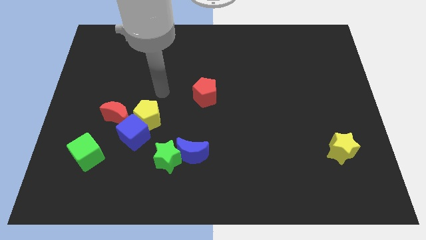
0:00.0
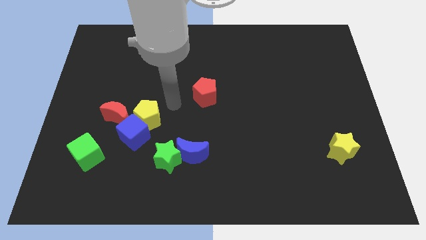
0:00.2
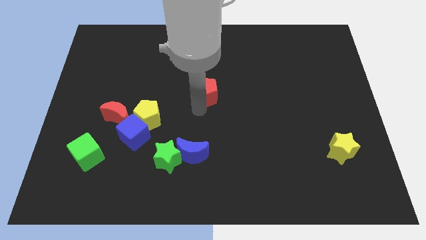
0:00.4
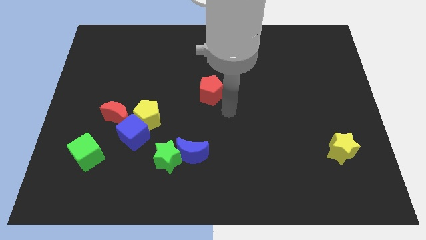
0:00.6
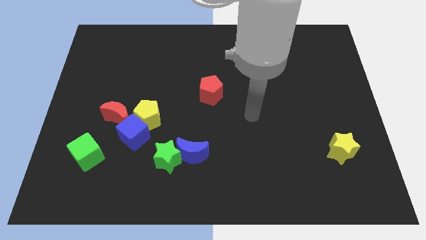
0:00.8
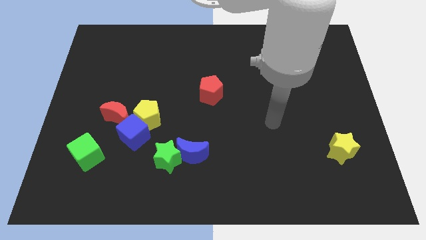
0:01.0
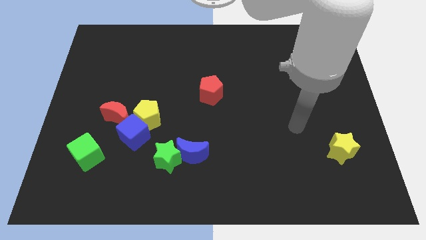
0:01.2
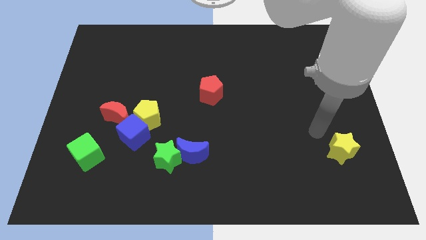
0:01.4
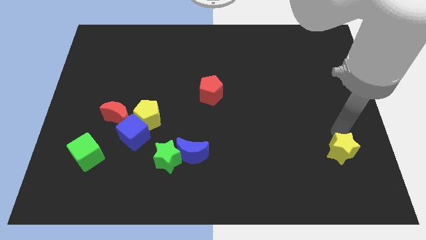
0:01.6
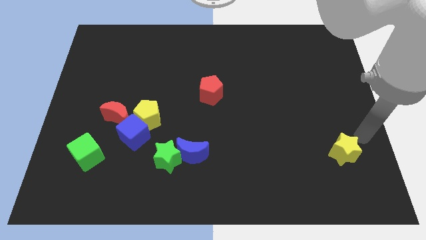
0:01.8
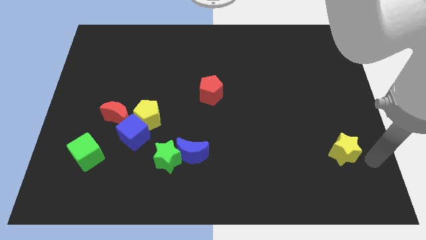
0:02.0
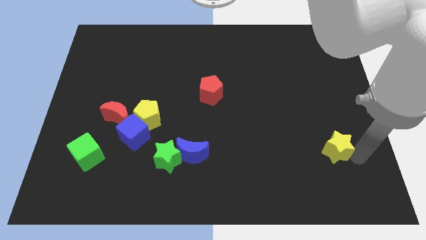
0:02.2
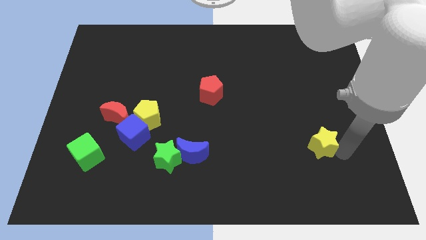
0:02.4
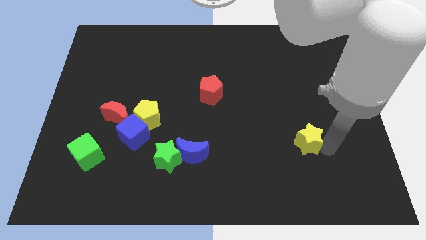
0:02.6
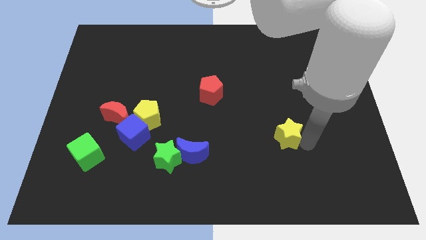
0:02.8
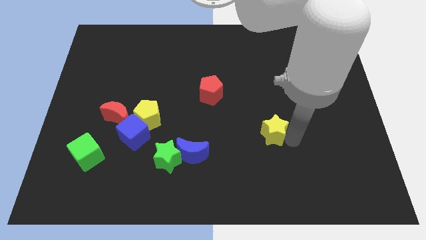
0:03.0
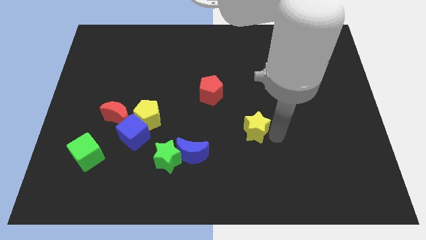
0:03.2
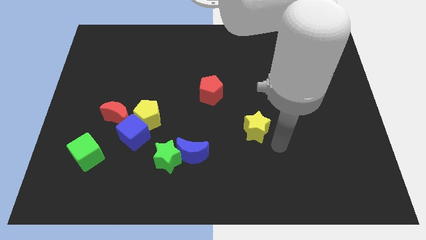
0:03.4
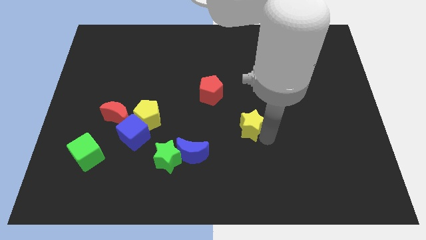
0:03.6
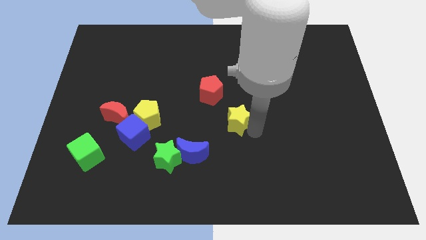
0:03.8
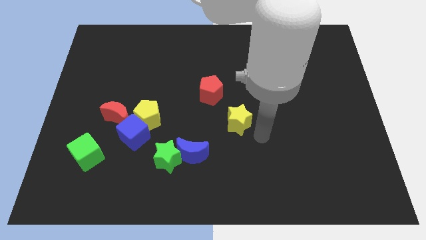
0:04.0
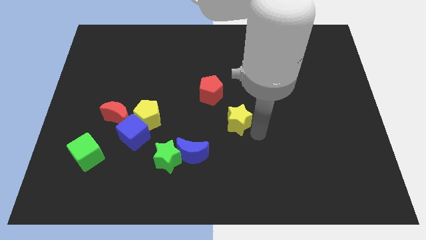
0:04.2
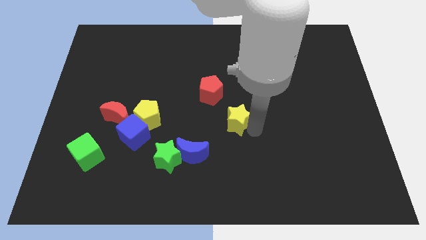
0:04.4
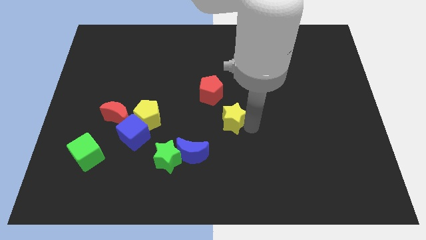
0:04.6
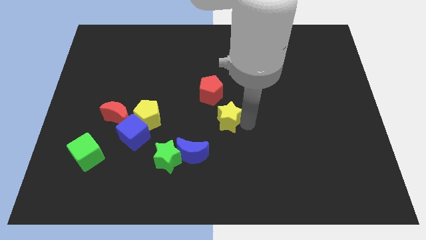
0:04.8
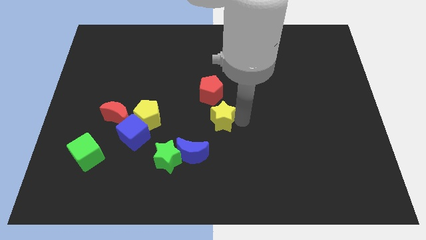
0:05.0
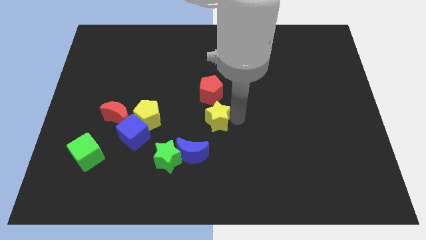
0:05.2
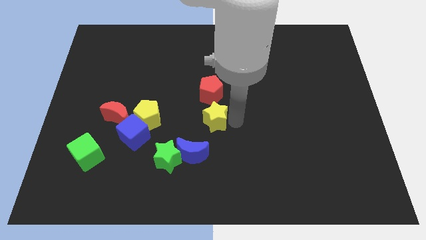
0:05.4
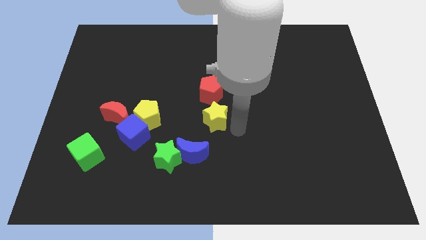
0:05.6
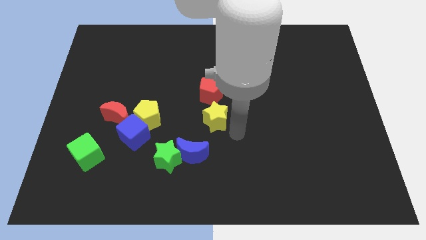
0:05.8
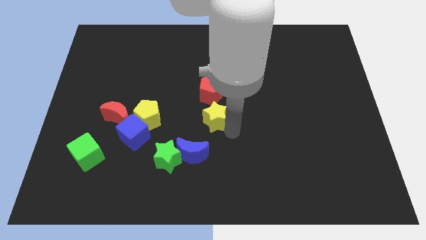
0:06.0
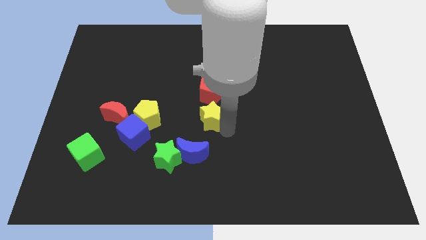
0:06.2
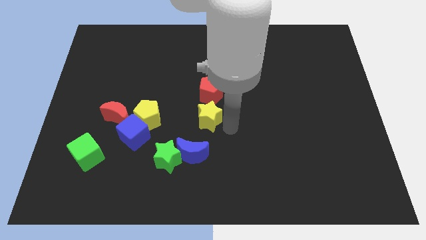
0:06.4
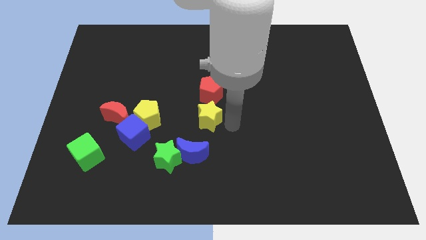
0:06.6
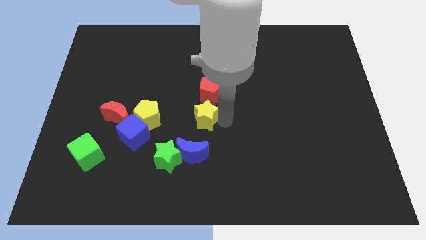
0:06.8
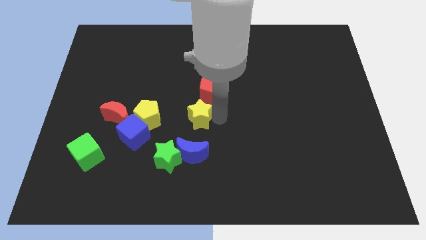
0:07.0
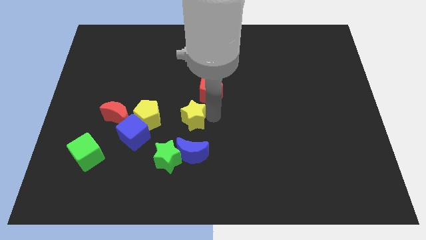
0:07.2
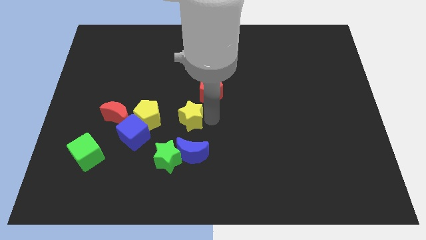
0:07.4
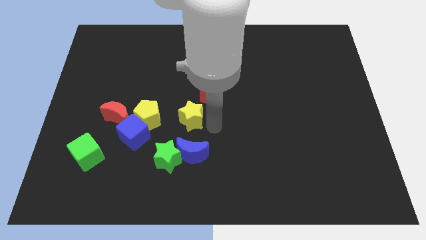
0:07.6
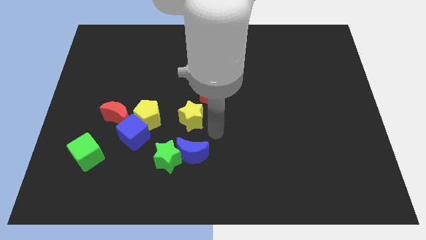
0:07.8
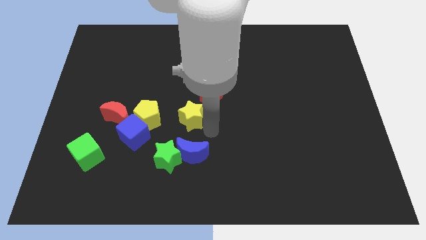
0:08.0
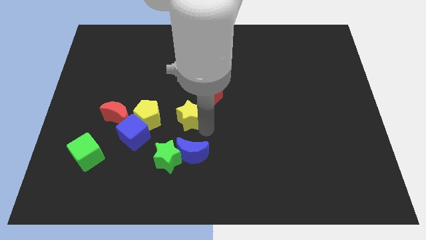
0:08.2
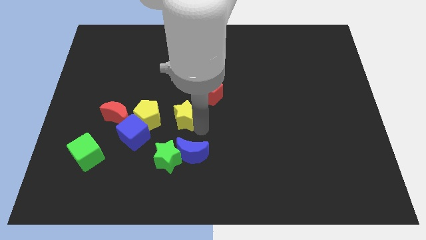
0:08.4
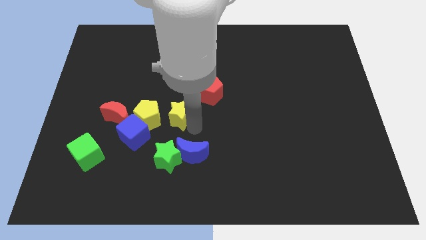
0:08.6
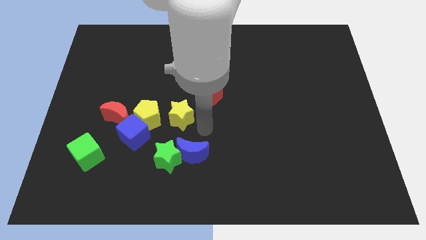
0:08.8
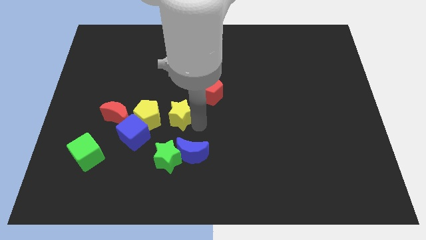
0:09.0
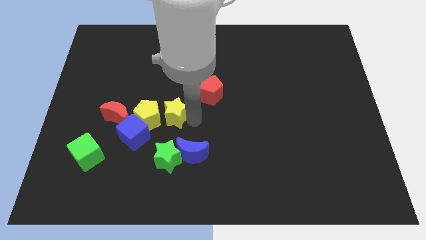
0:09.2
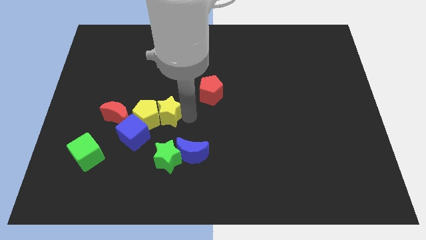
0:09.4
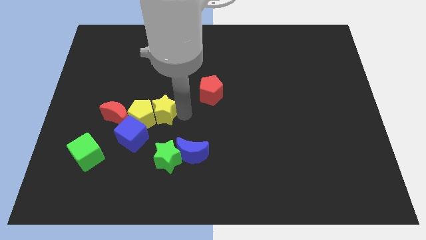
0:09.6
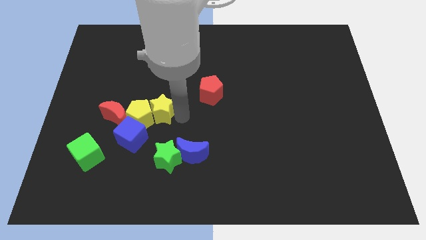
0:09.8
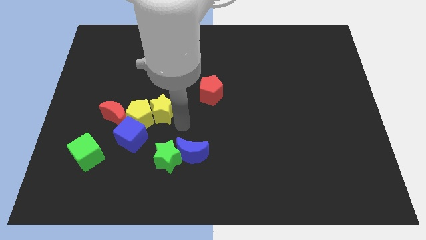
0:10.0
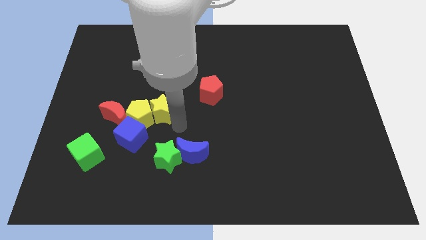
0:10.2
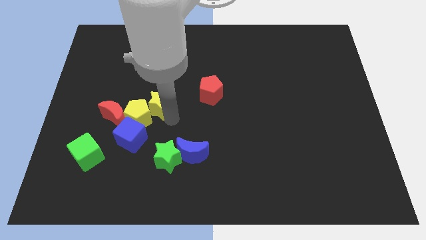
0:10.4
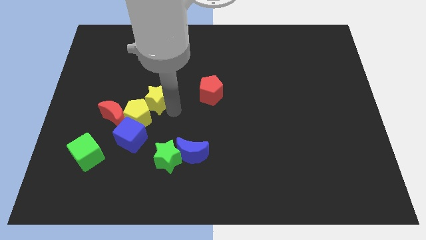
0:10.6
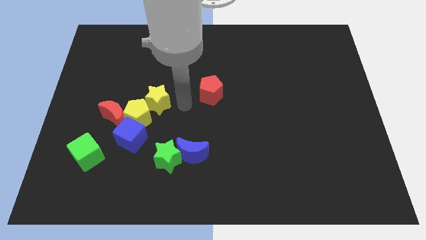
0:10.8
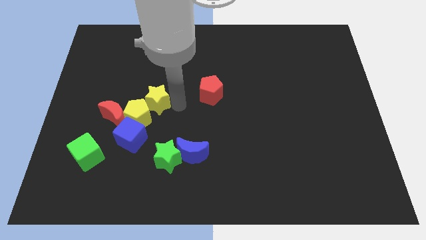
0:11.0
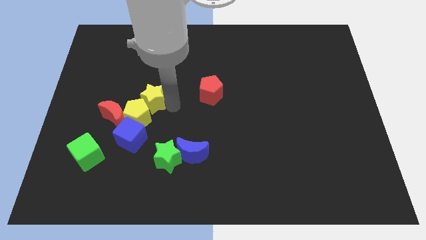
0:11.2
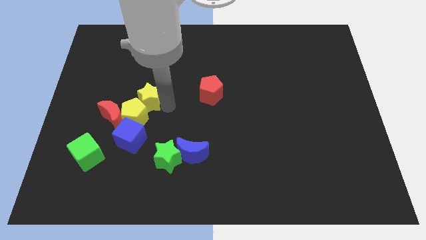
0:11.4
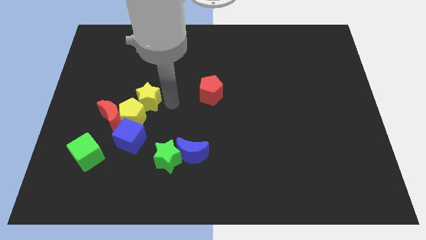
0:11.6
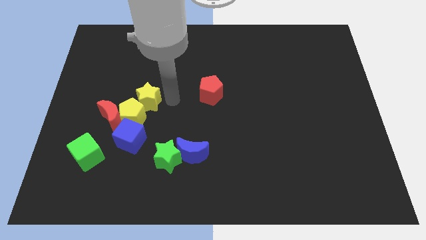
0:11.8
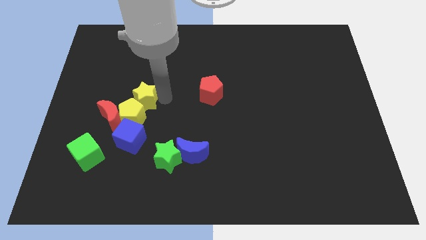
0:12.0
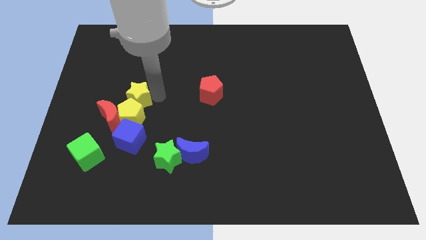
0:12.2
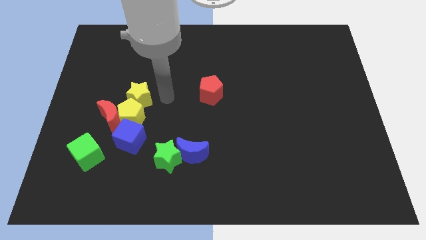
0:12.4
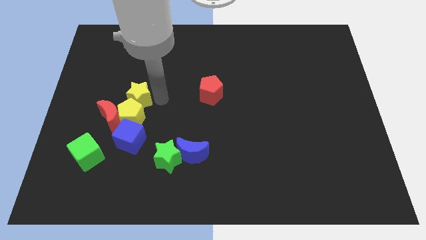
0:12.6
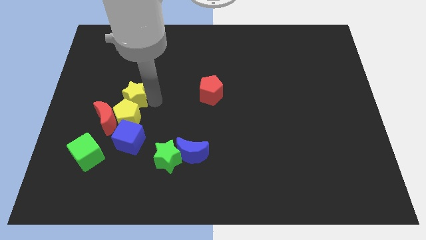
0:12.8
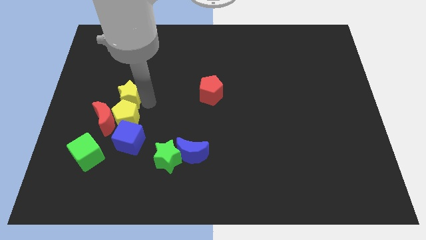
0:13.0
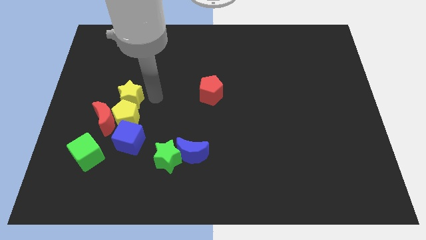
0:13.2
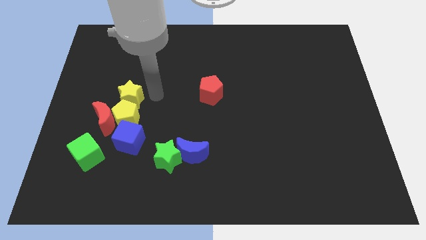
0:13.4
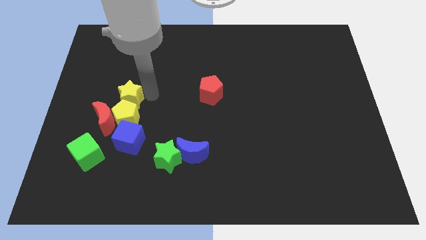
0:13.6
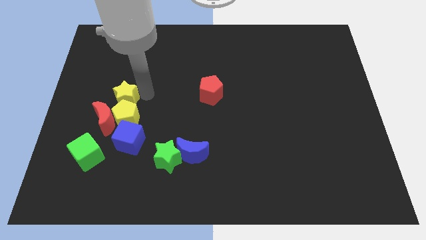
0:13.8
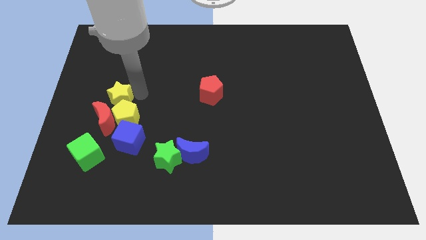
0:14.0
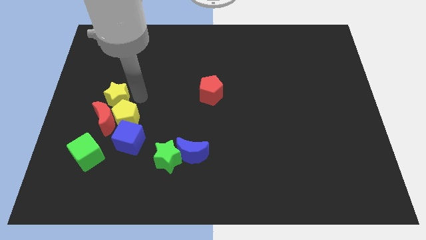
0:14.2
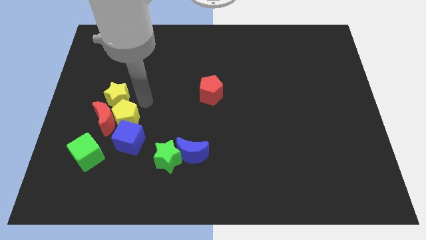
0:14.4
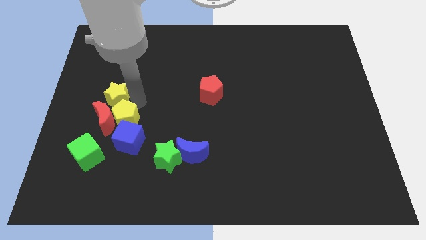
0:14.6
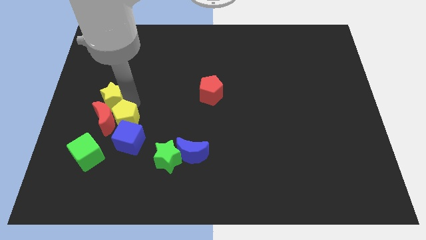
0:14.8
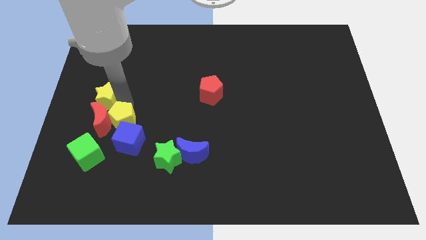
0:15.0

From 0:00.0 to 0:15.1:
push the yellow star to the left side of the board
